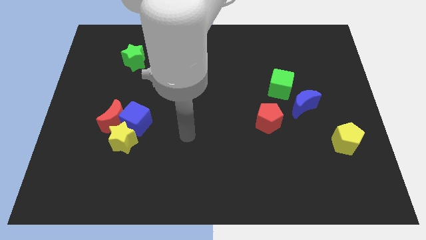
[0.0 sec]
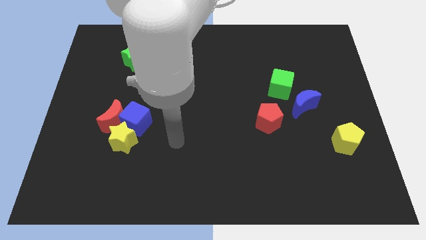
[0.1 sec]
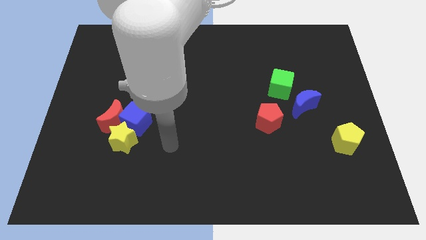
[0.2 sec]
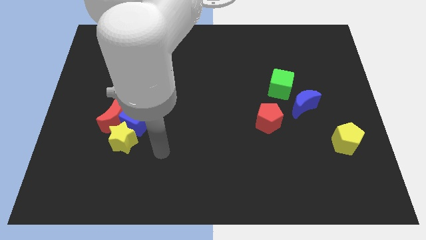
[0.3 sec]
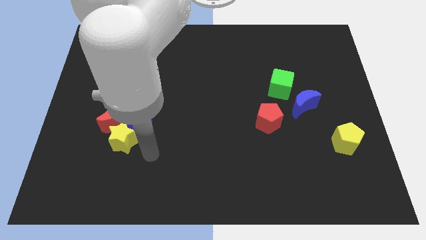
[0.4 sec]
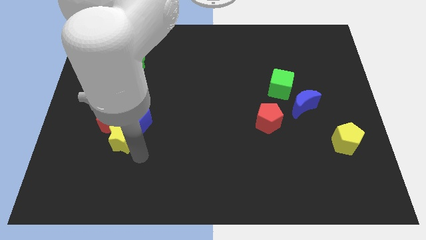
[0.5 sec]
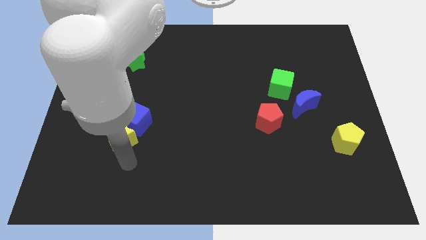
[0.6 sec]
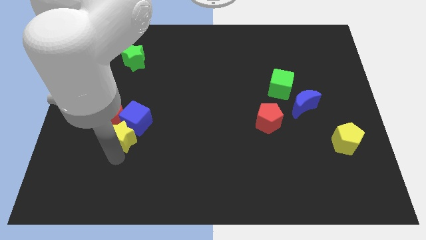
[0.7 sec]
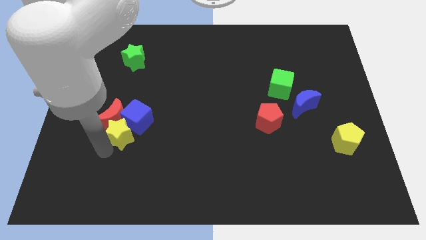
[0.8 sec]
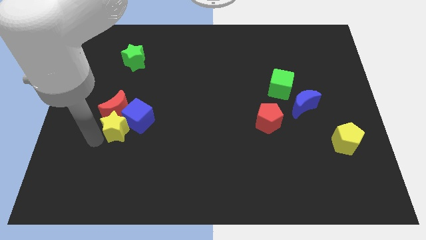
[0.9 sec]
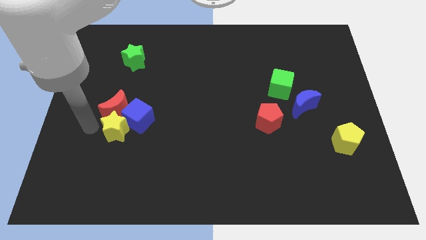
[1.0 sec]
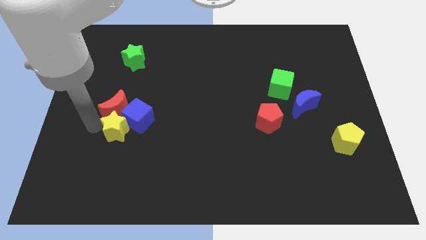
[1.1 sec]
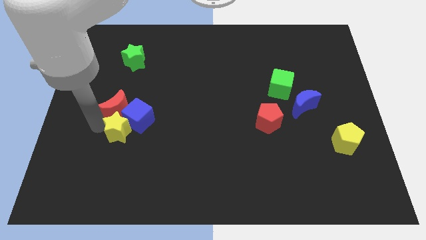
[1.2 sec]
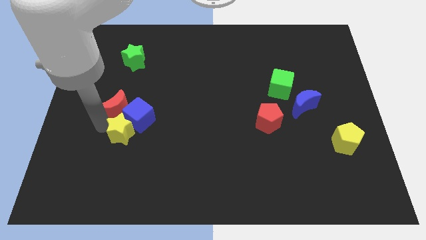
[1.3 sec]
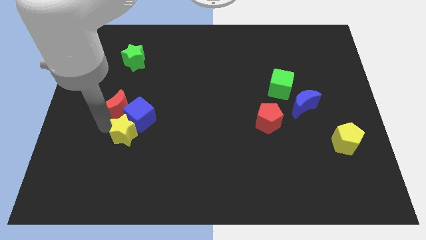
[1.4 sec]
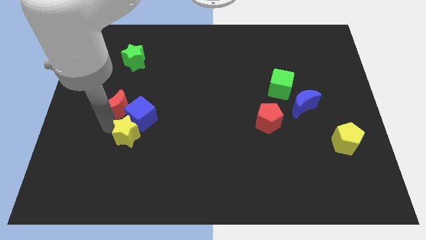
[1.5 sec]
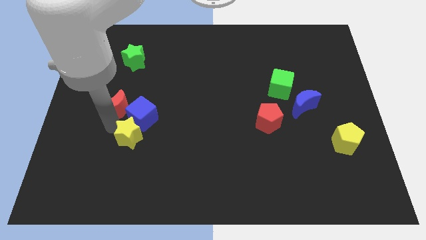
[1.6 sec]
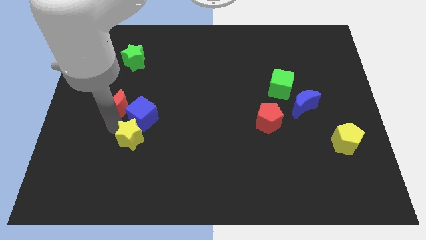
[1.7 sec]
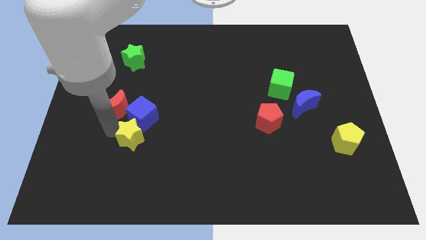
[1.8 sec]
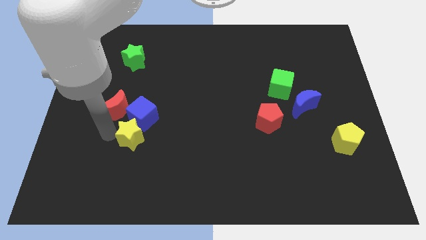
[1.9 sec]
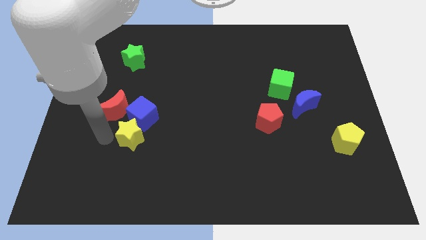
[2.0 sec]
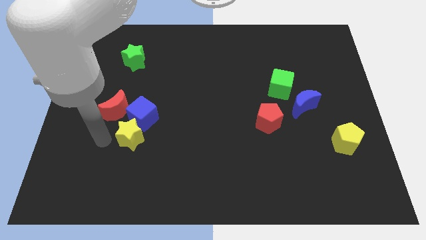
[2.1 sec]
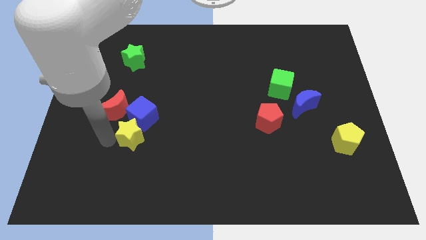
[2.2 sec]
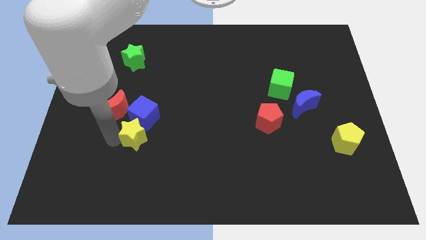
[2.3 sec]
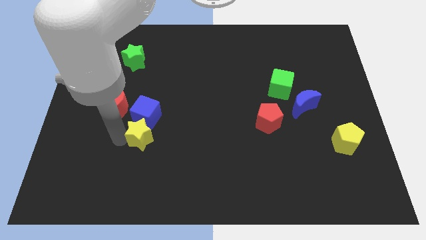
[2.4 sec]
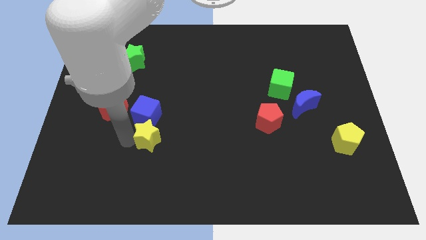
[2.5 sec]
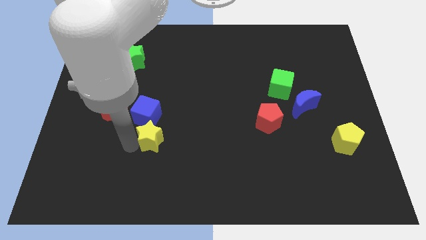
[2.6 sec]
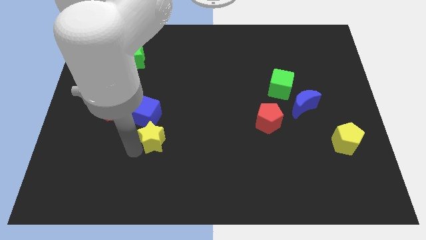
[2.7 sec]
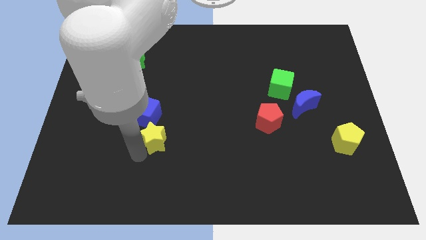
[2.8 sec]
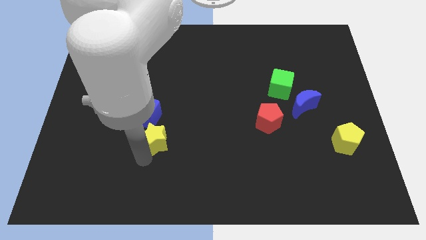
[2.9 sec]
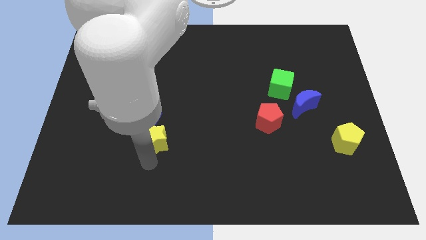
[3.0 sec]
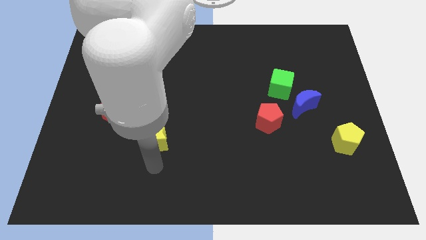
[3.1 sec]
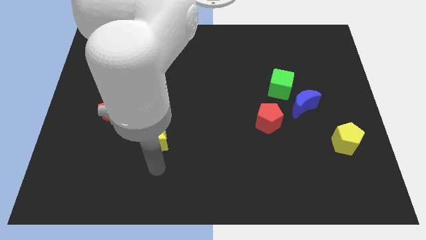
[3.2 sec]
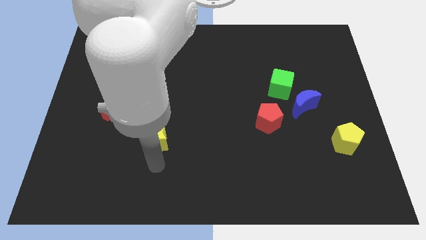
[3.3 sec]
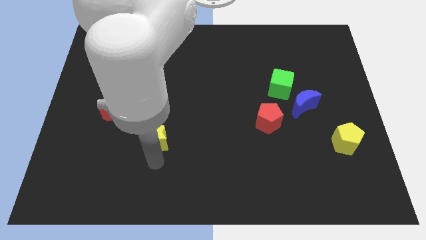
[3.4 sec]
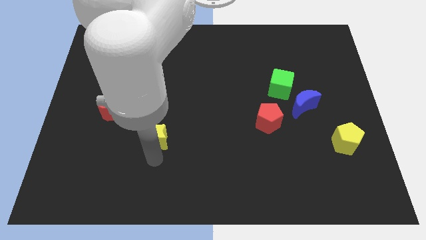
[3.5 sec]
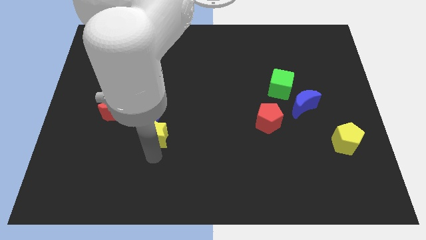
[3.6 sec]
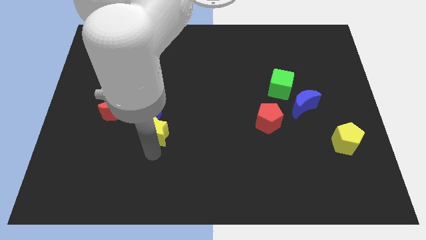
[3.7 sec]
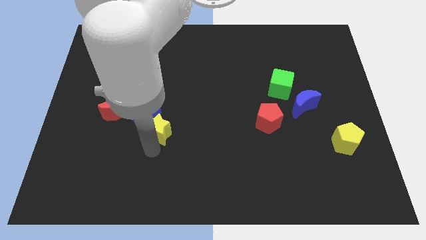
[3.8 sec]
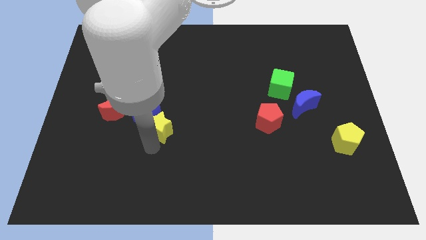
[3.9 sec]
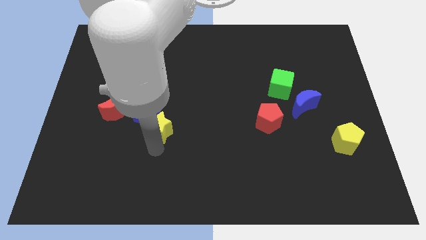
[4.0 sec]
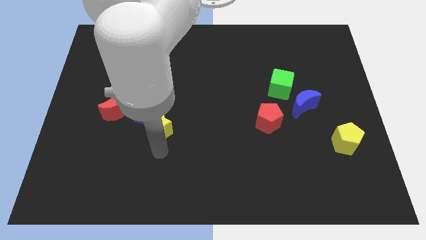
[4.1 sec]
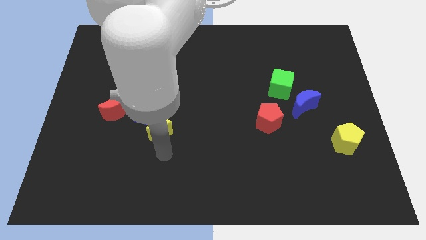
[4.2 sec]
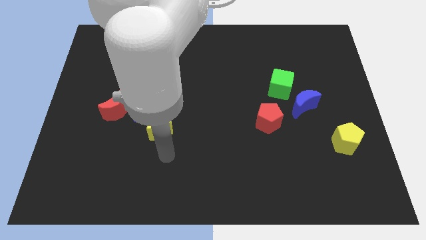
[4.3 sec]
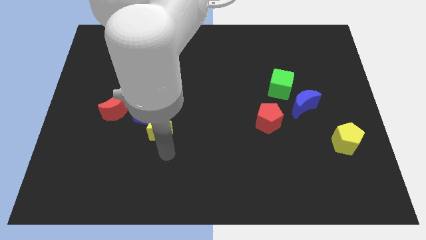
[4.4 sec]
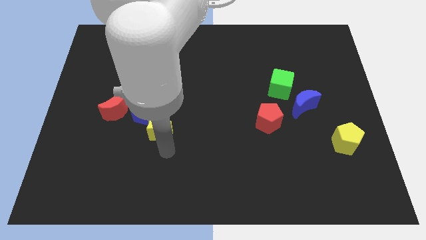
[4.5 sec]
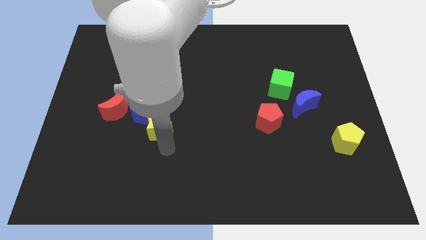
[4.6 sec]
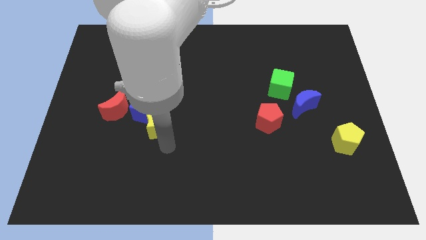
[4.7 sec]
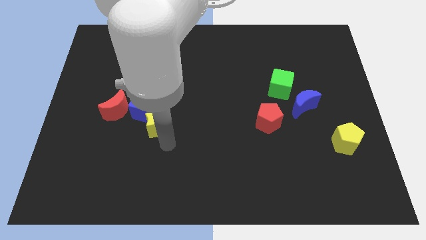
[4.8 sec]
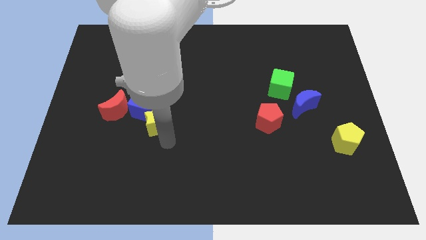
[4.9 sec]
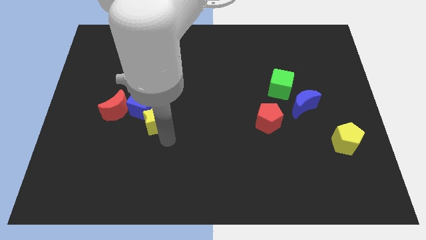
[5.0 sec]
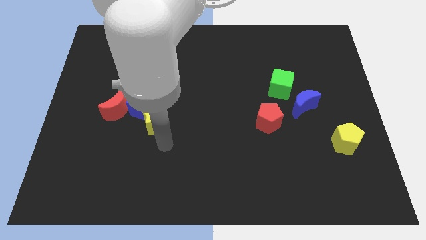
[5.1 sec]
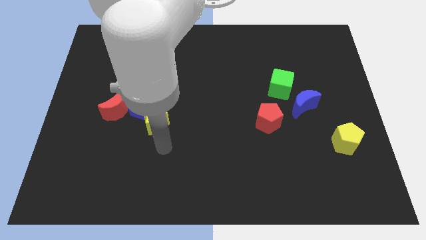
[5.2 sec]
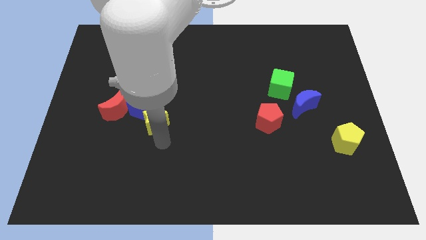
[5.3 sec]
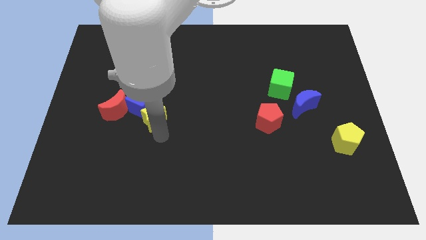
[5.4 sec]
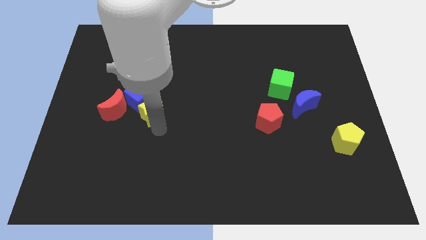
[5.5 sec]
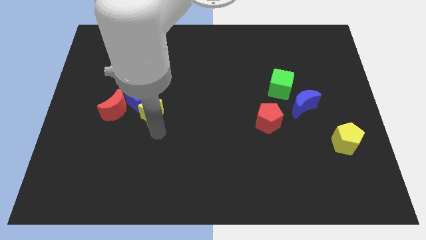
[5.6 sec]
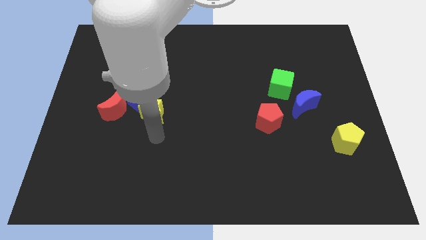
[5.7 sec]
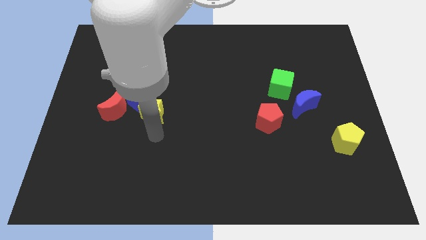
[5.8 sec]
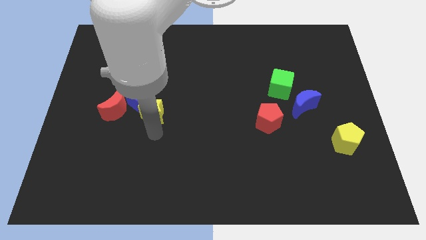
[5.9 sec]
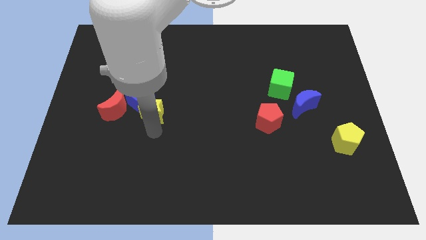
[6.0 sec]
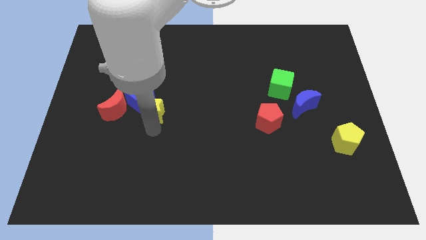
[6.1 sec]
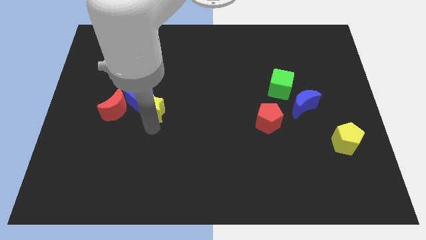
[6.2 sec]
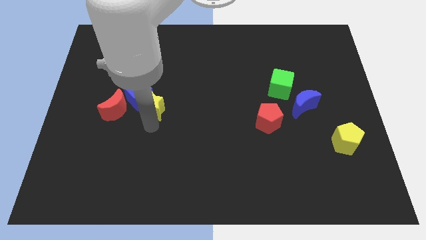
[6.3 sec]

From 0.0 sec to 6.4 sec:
push the yellow star a little upwards

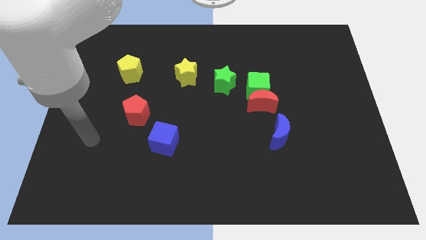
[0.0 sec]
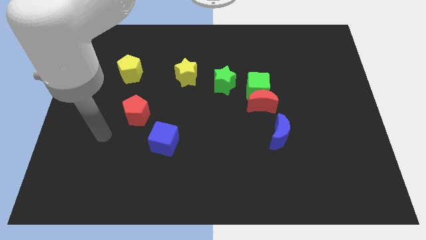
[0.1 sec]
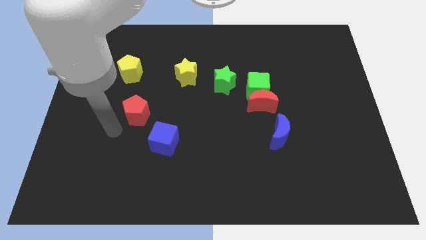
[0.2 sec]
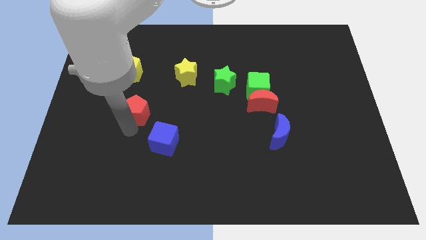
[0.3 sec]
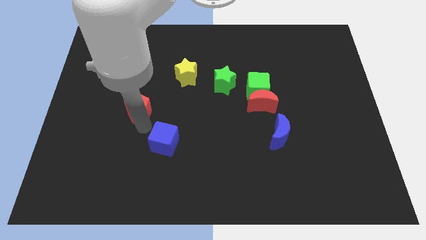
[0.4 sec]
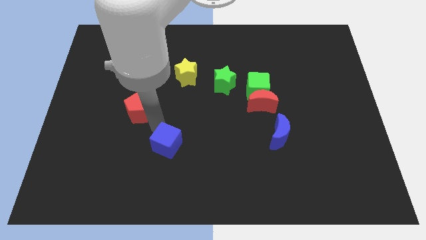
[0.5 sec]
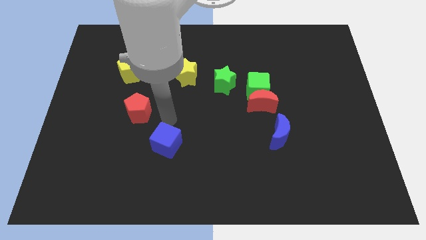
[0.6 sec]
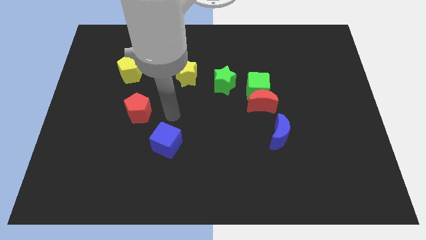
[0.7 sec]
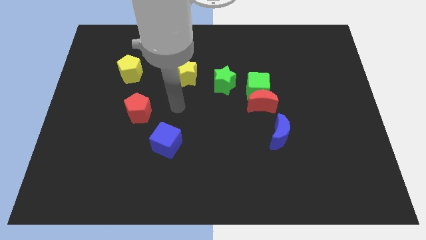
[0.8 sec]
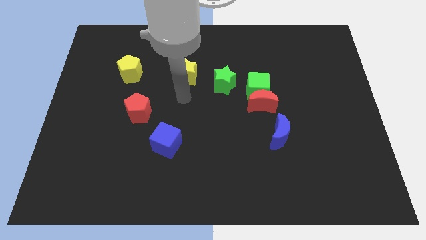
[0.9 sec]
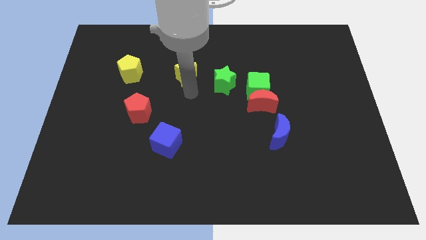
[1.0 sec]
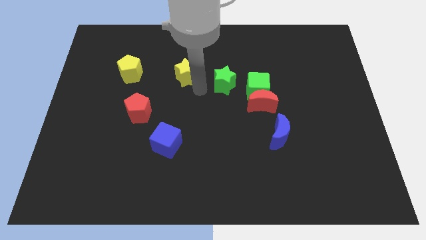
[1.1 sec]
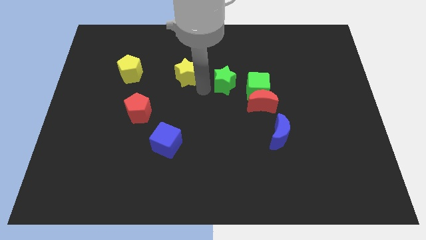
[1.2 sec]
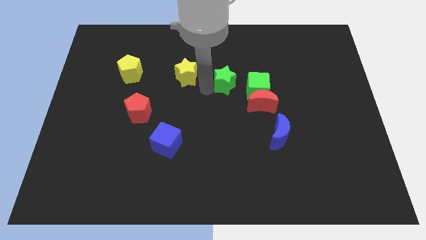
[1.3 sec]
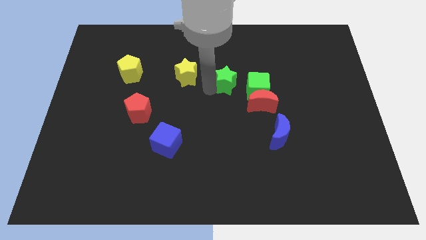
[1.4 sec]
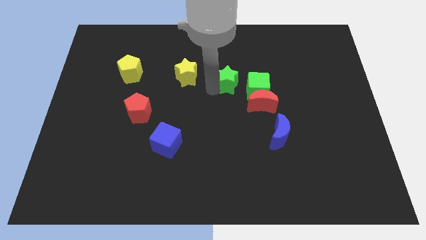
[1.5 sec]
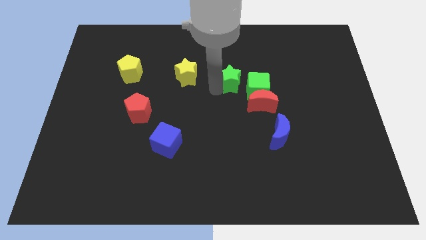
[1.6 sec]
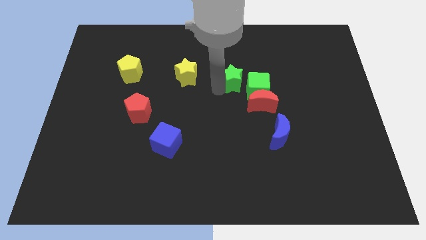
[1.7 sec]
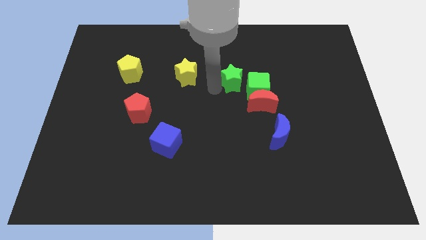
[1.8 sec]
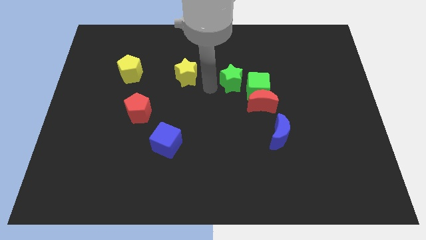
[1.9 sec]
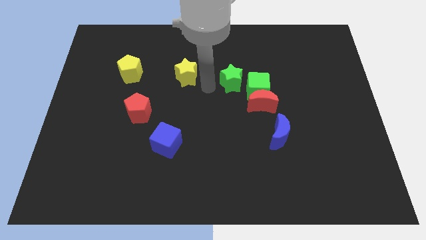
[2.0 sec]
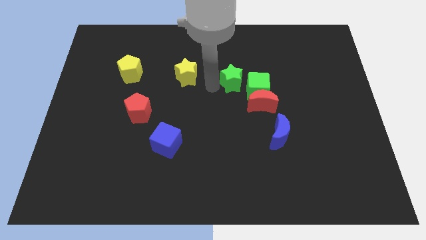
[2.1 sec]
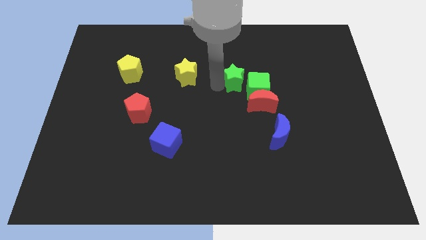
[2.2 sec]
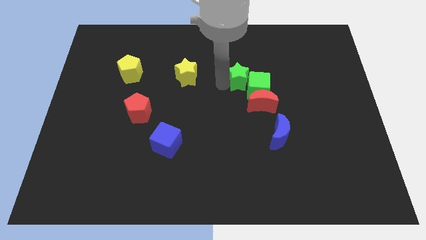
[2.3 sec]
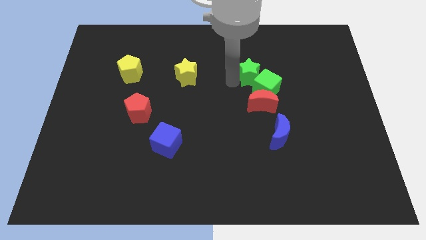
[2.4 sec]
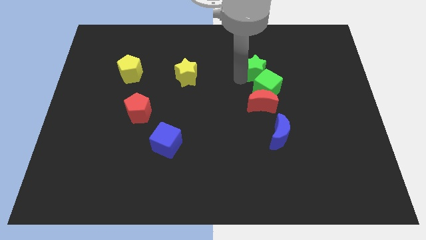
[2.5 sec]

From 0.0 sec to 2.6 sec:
push the green star a little to the right
